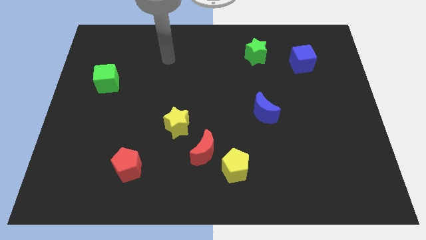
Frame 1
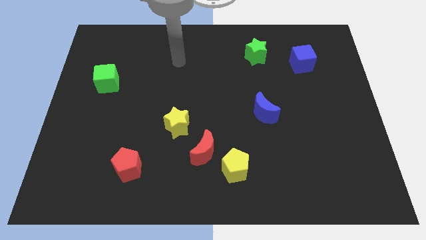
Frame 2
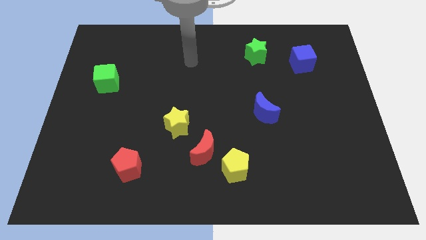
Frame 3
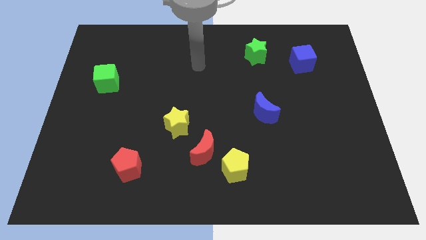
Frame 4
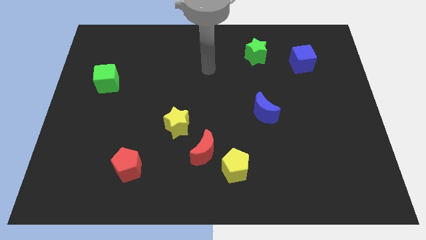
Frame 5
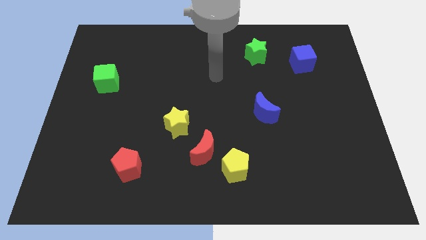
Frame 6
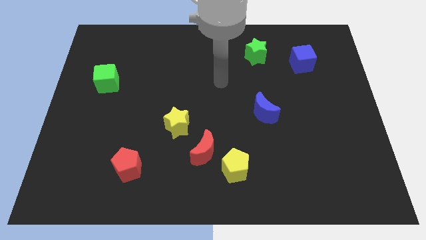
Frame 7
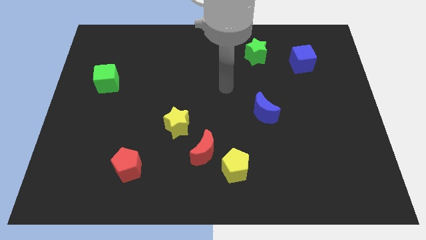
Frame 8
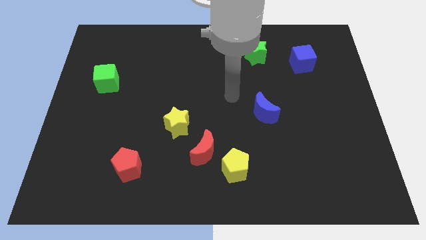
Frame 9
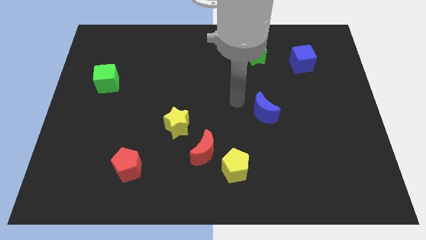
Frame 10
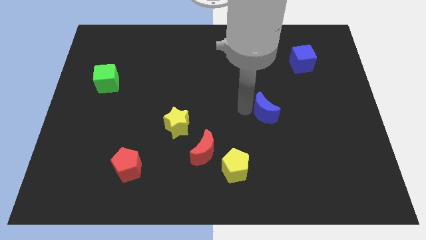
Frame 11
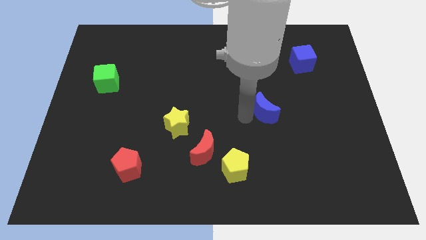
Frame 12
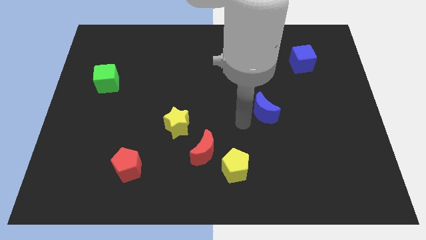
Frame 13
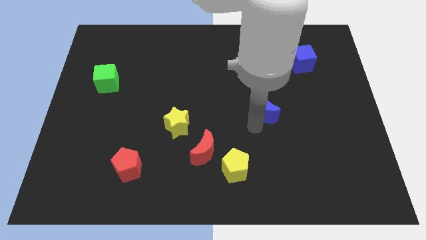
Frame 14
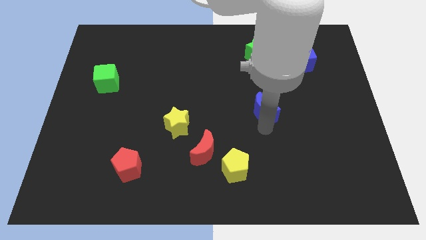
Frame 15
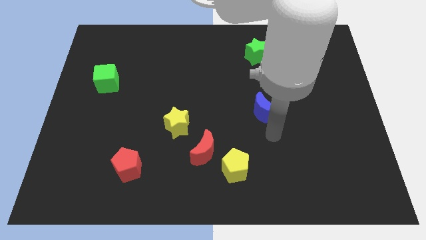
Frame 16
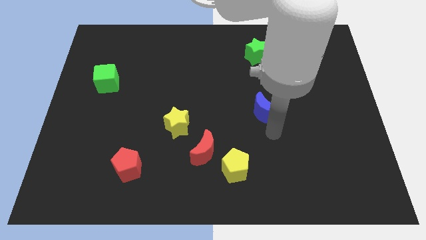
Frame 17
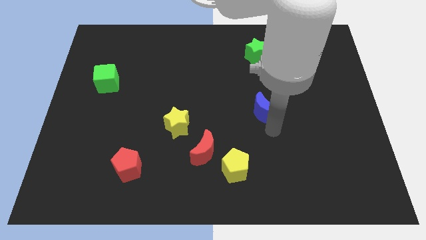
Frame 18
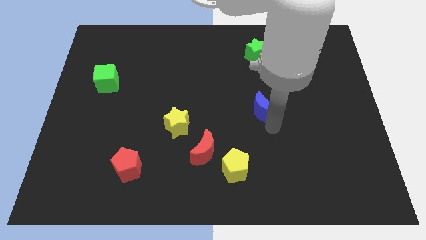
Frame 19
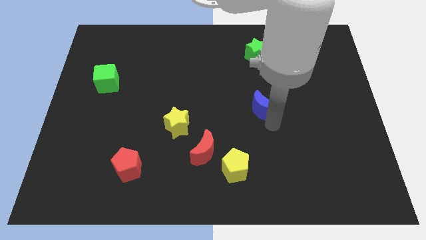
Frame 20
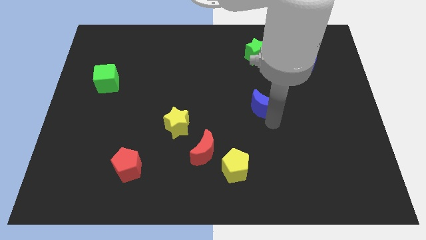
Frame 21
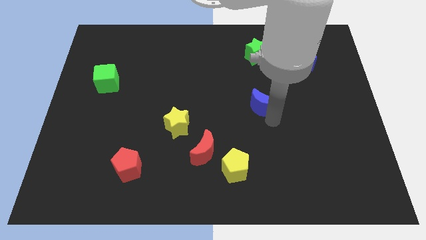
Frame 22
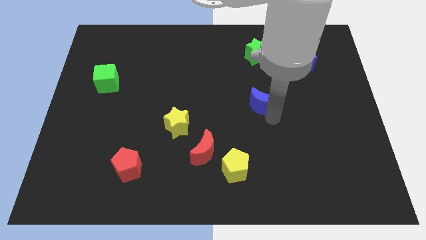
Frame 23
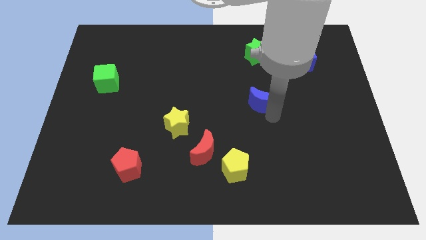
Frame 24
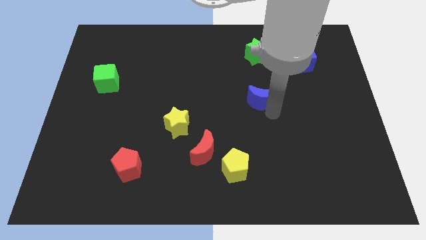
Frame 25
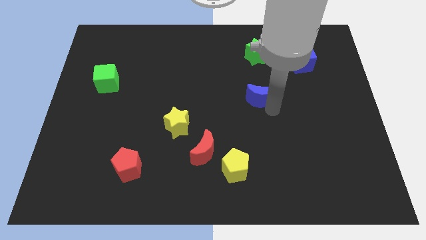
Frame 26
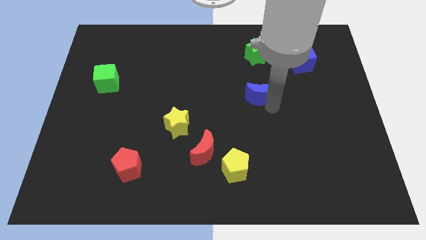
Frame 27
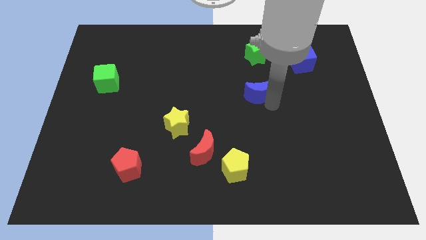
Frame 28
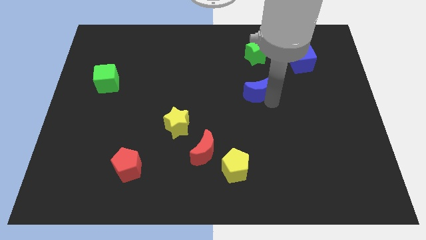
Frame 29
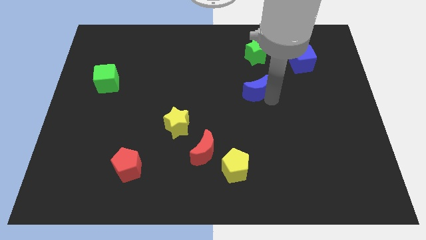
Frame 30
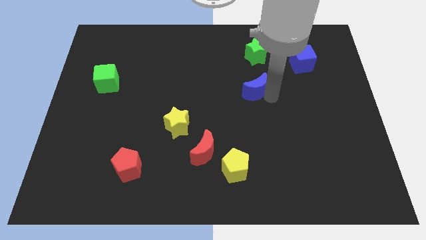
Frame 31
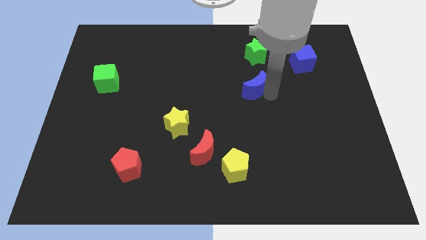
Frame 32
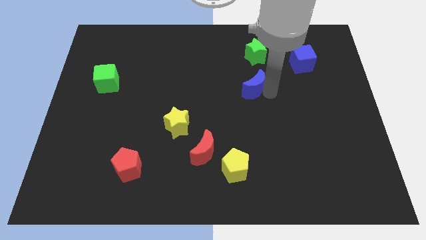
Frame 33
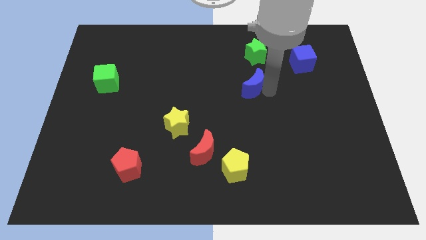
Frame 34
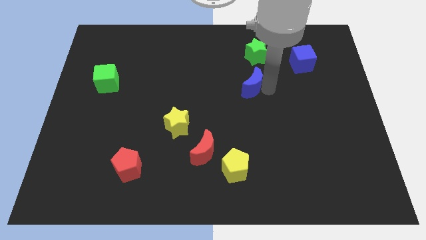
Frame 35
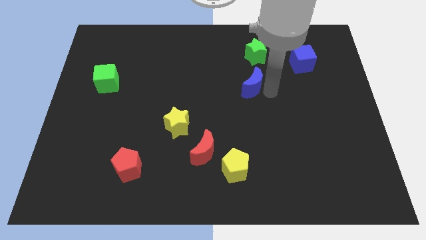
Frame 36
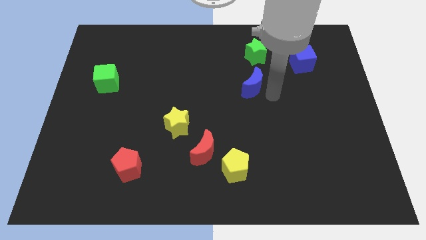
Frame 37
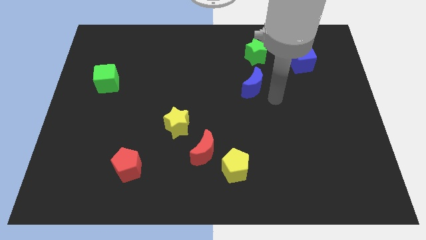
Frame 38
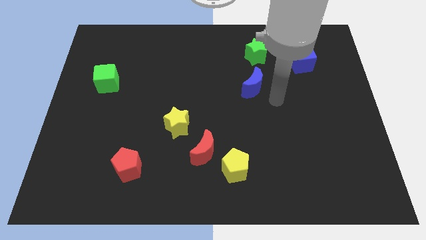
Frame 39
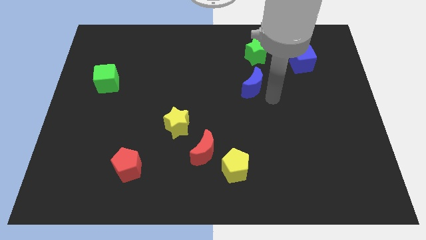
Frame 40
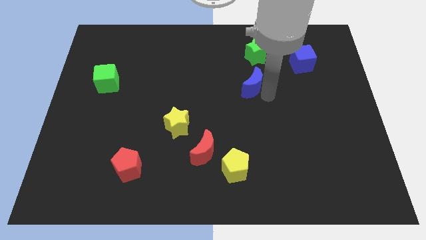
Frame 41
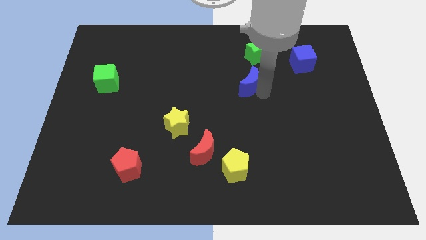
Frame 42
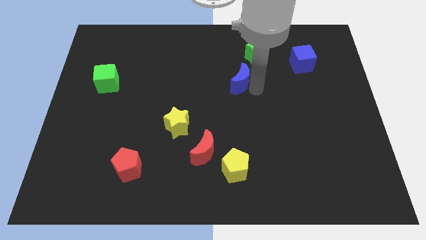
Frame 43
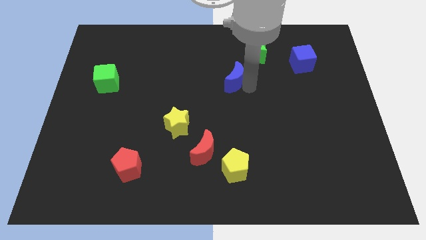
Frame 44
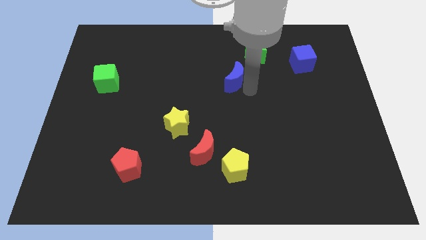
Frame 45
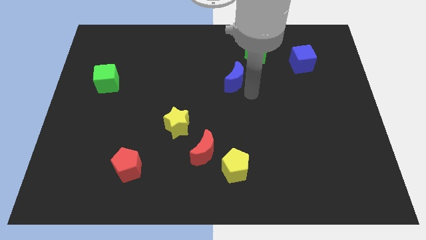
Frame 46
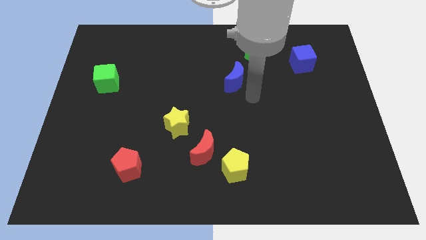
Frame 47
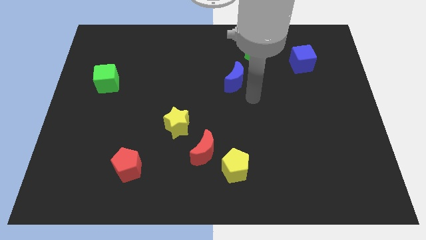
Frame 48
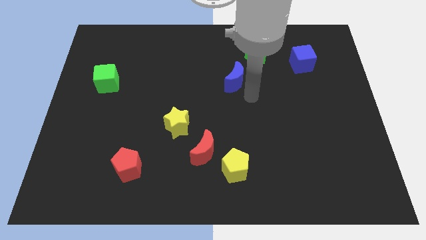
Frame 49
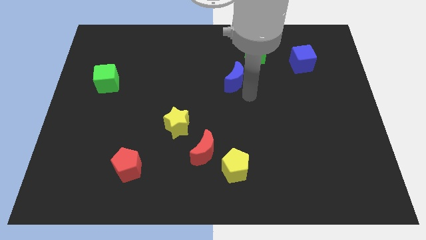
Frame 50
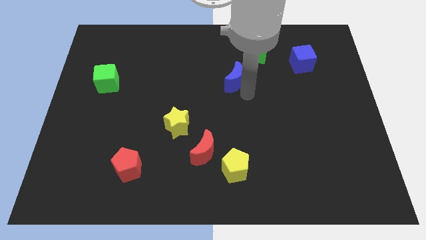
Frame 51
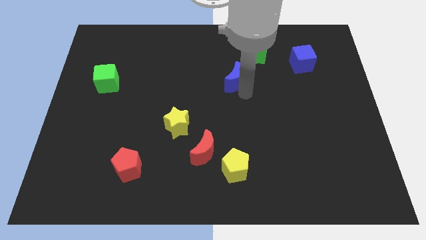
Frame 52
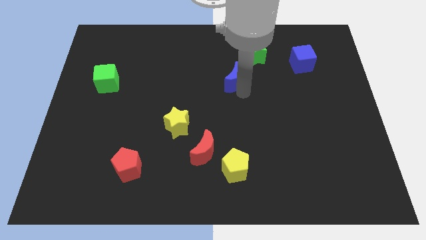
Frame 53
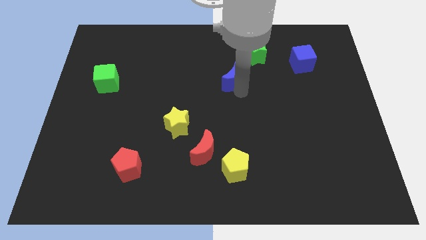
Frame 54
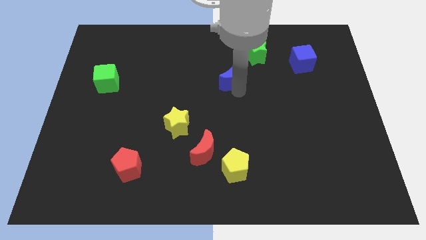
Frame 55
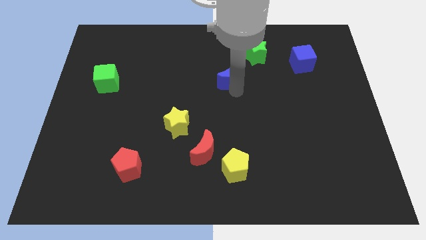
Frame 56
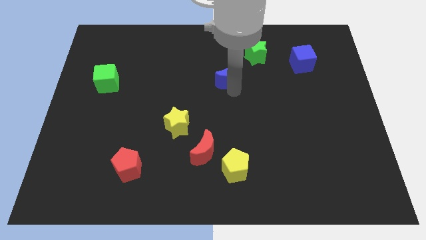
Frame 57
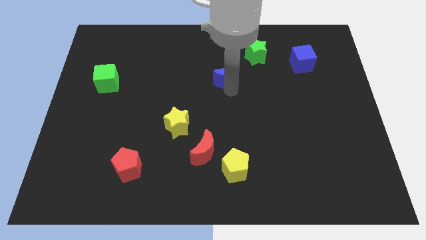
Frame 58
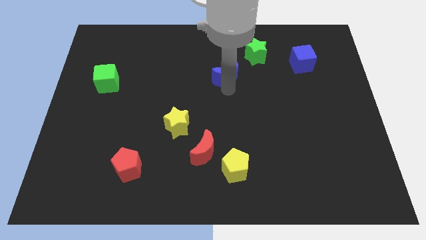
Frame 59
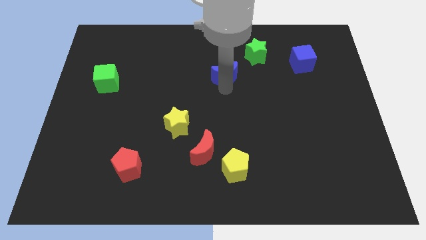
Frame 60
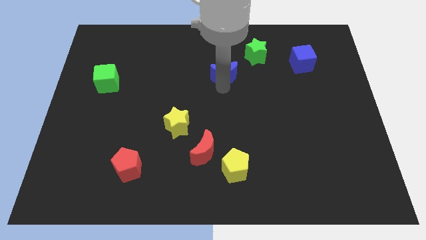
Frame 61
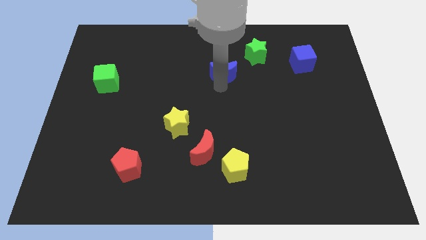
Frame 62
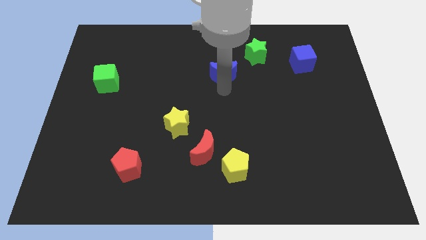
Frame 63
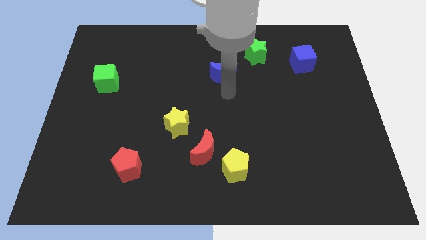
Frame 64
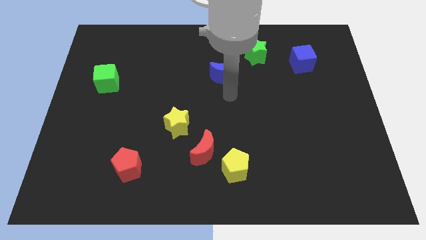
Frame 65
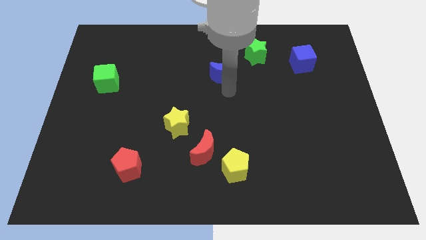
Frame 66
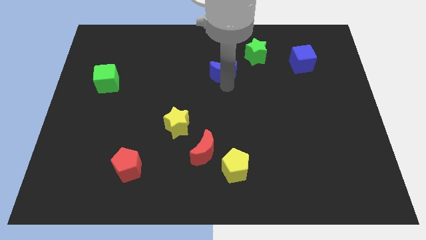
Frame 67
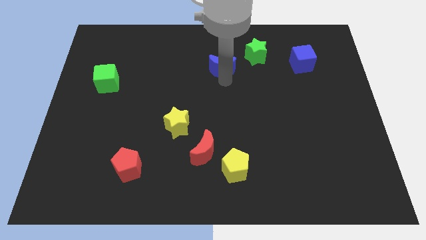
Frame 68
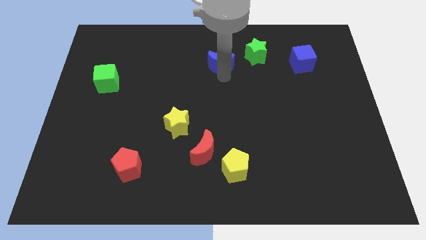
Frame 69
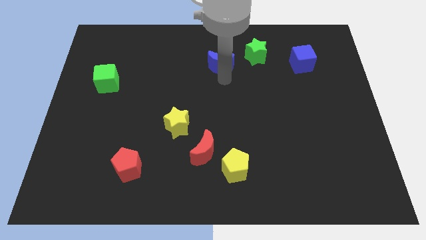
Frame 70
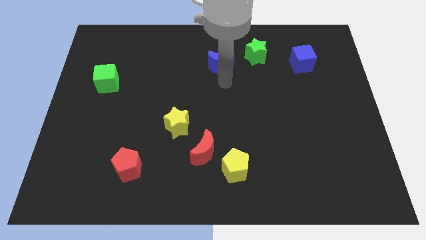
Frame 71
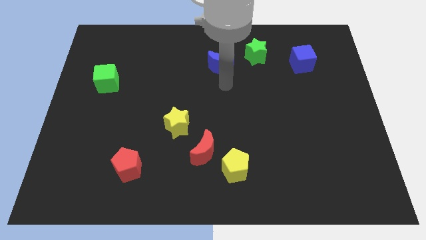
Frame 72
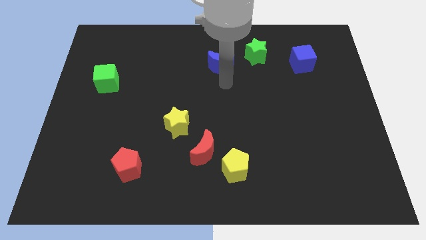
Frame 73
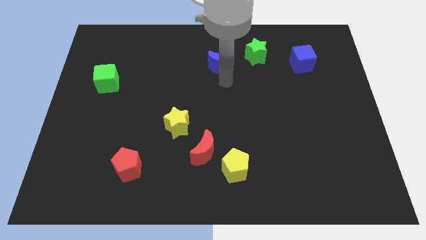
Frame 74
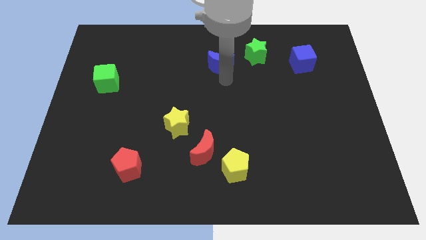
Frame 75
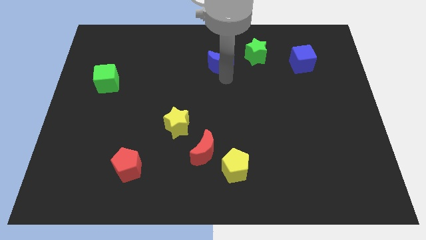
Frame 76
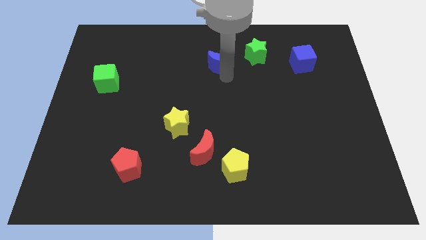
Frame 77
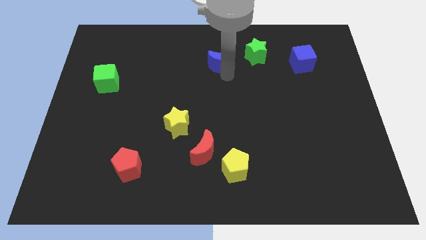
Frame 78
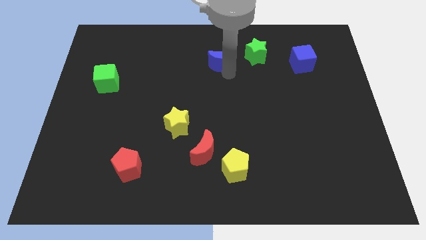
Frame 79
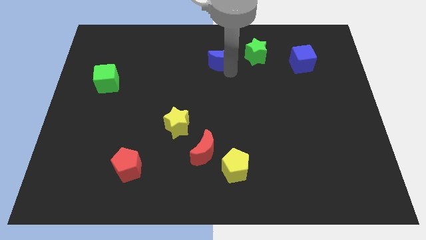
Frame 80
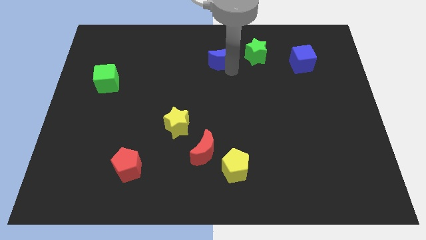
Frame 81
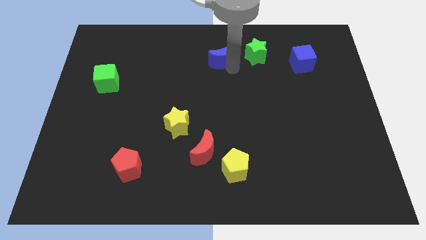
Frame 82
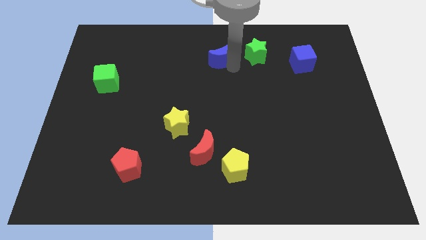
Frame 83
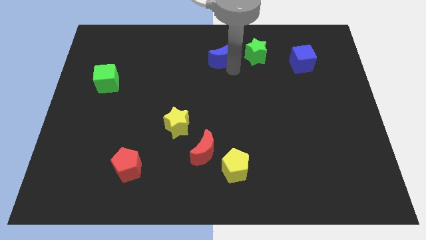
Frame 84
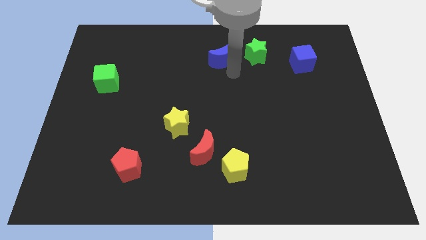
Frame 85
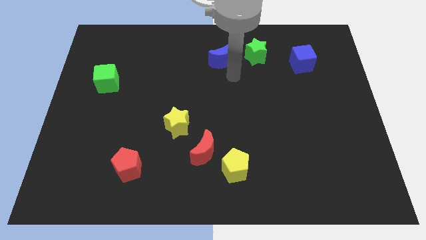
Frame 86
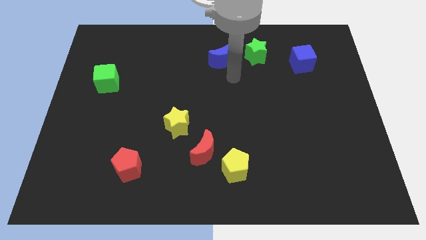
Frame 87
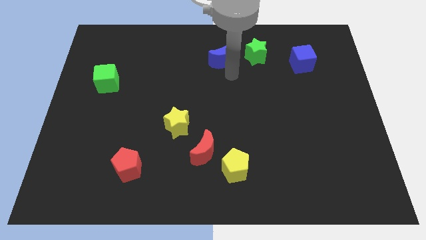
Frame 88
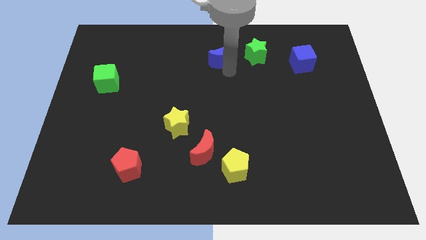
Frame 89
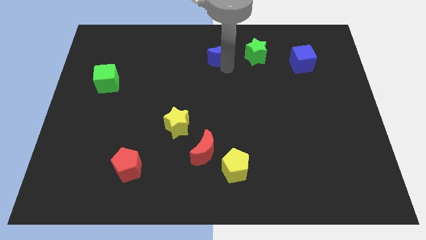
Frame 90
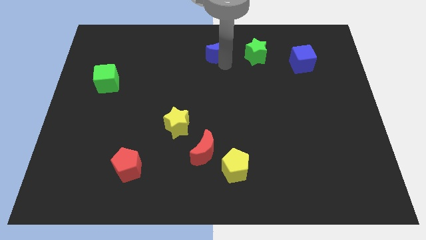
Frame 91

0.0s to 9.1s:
put the blue moon to the top
